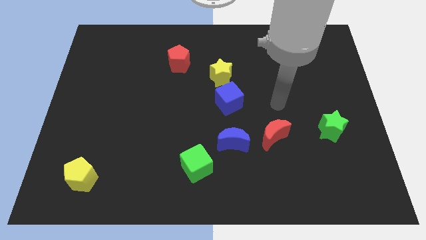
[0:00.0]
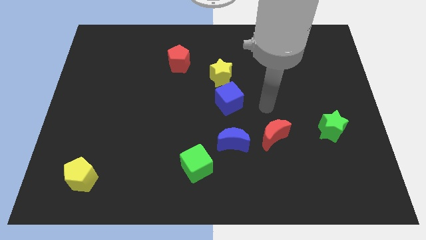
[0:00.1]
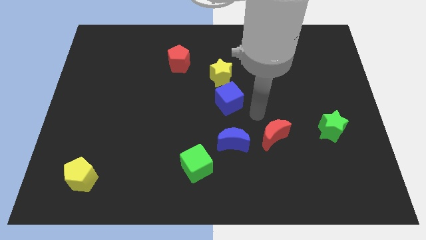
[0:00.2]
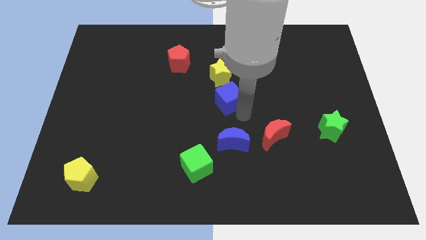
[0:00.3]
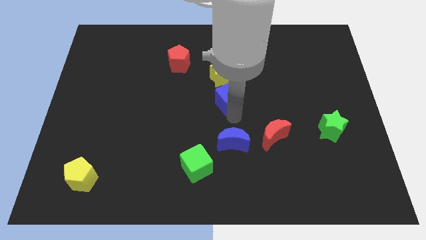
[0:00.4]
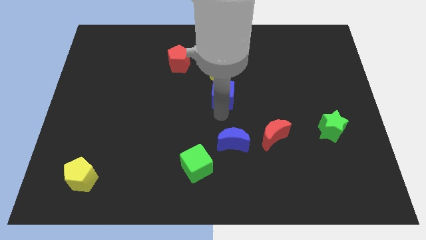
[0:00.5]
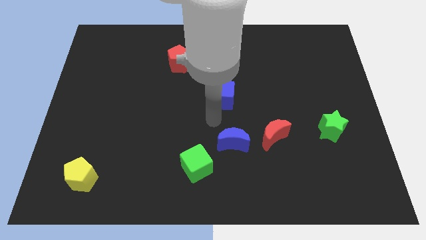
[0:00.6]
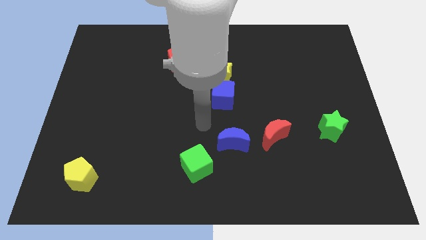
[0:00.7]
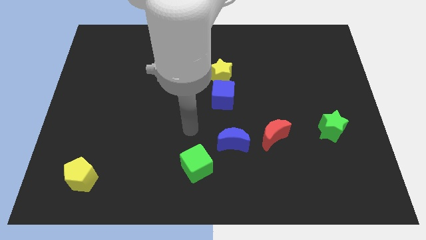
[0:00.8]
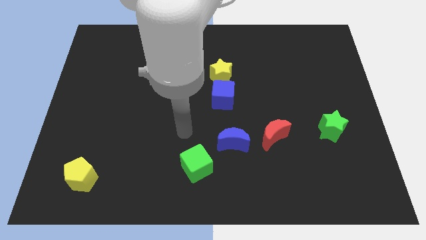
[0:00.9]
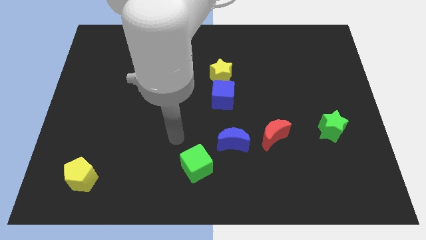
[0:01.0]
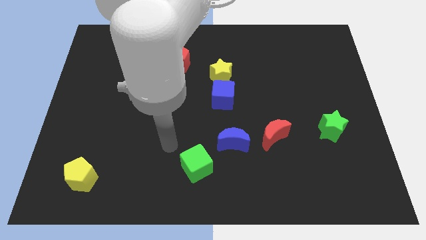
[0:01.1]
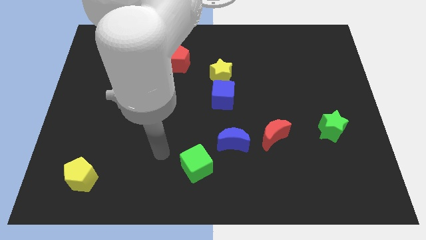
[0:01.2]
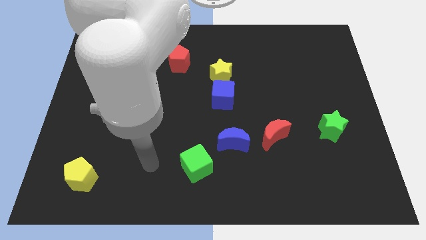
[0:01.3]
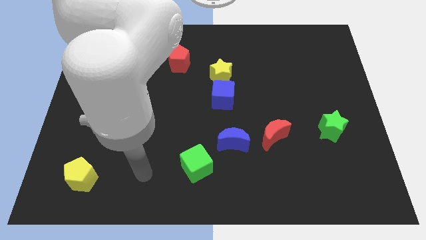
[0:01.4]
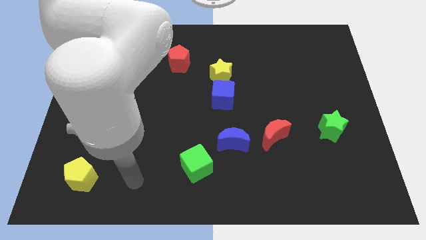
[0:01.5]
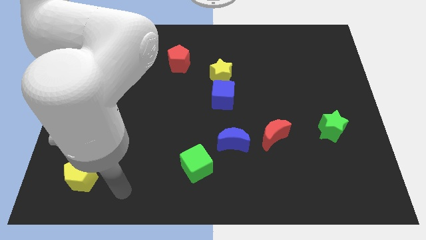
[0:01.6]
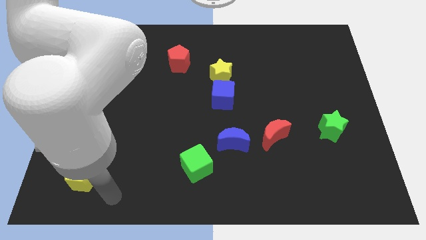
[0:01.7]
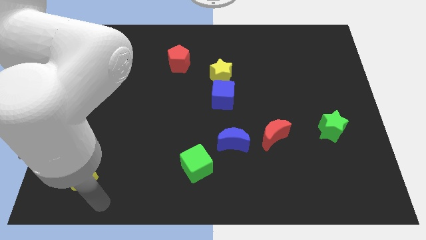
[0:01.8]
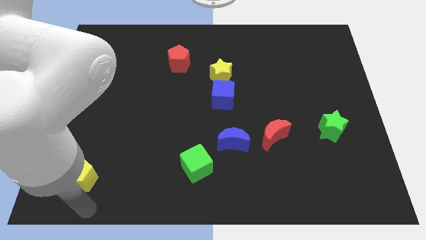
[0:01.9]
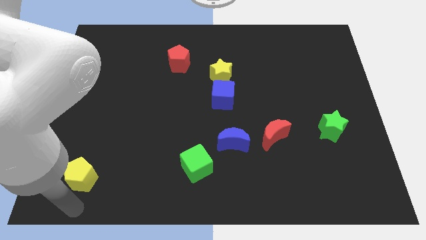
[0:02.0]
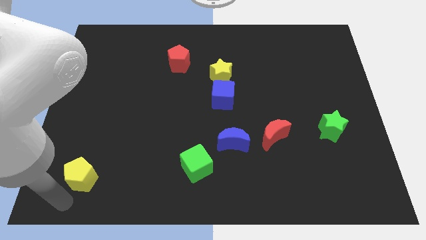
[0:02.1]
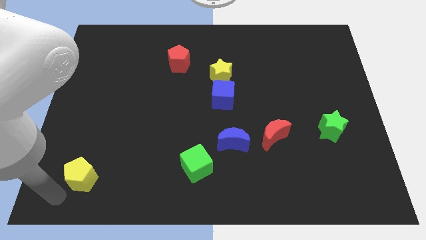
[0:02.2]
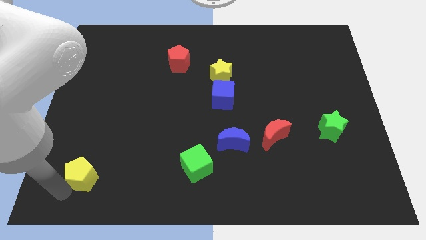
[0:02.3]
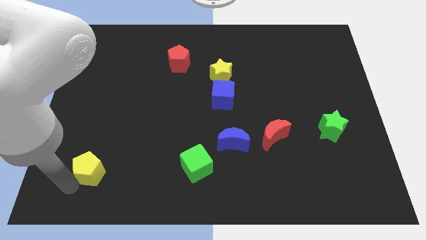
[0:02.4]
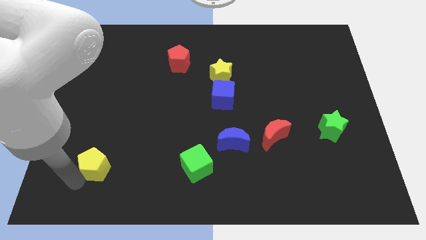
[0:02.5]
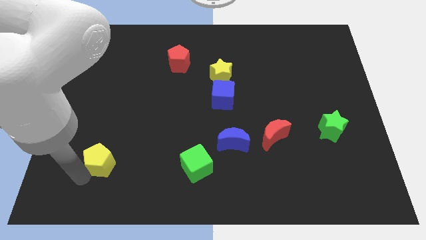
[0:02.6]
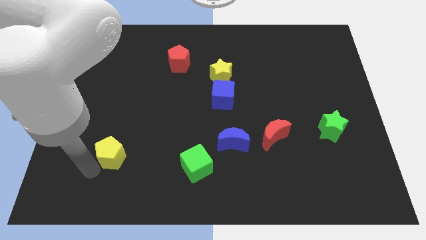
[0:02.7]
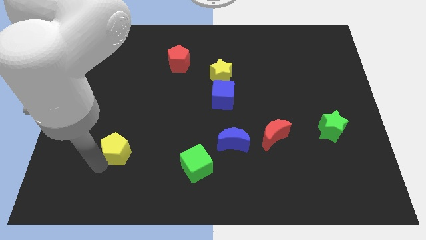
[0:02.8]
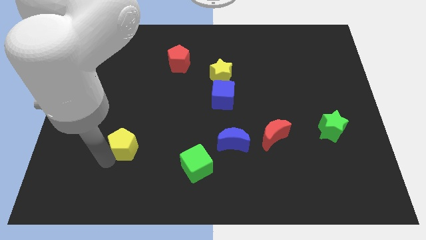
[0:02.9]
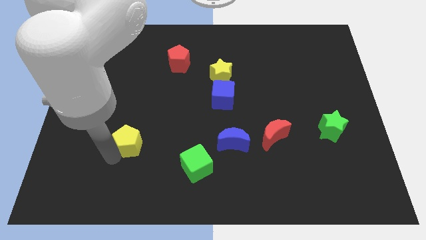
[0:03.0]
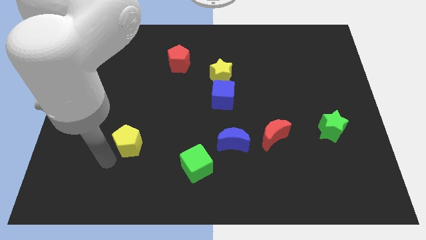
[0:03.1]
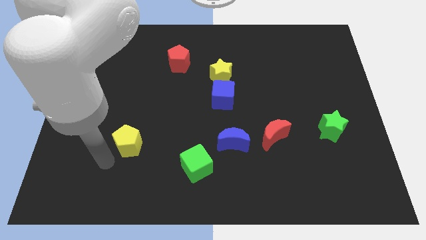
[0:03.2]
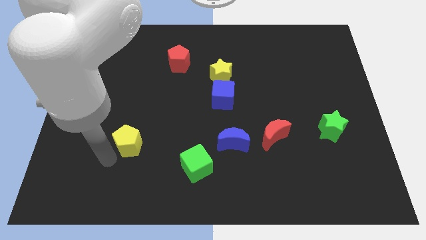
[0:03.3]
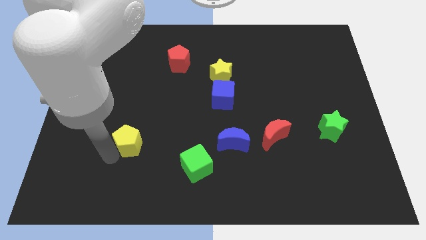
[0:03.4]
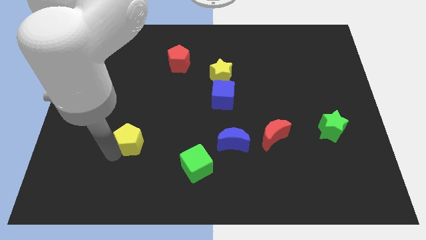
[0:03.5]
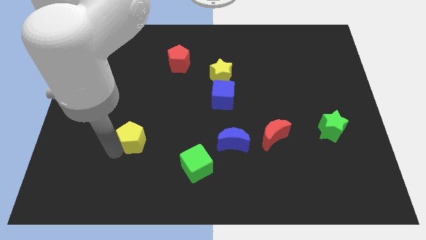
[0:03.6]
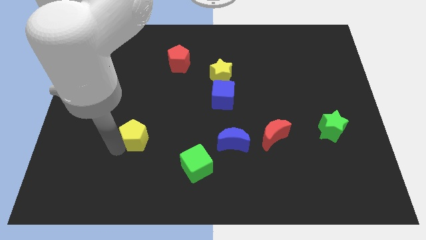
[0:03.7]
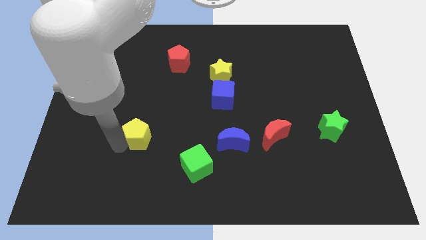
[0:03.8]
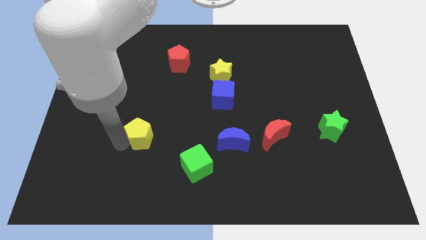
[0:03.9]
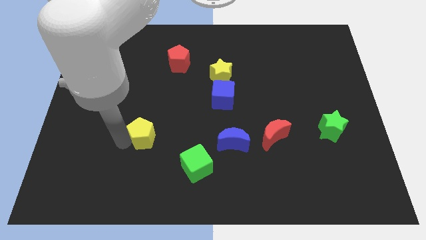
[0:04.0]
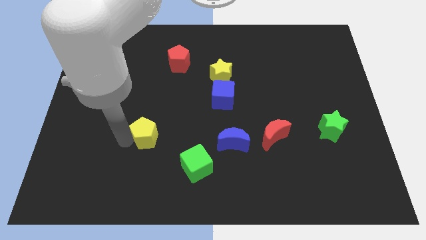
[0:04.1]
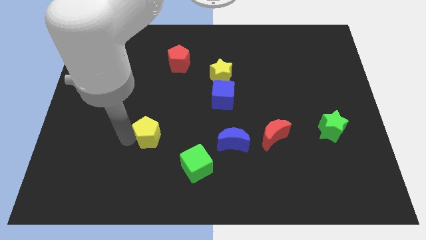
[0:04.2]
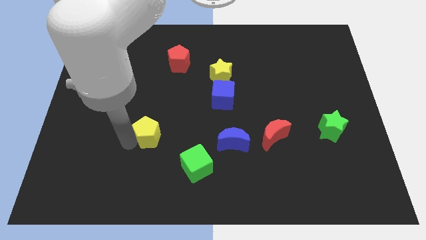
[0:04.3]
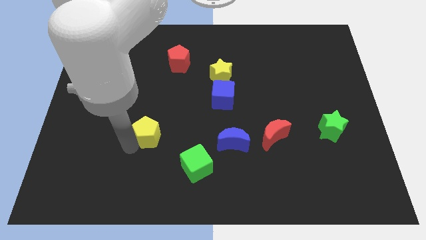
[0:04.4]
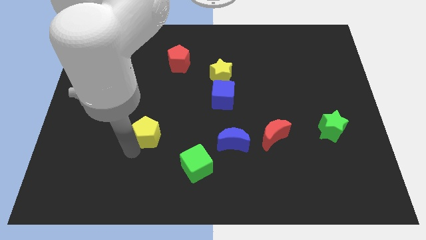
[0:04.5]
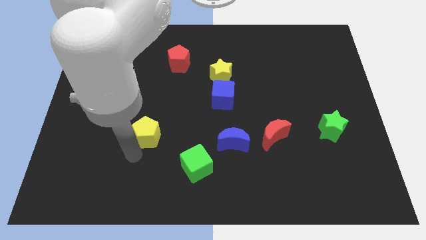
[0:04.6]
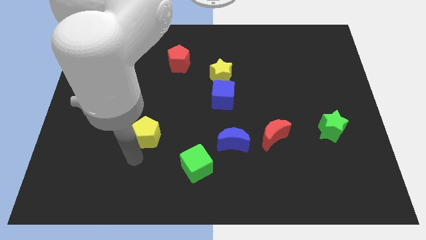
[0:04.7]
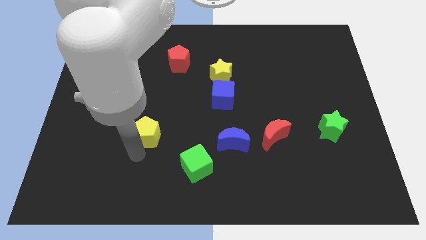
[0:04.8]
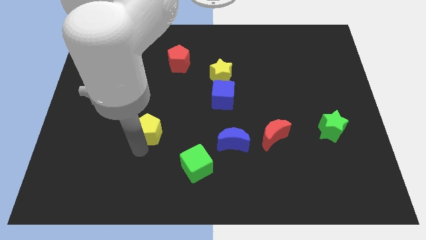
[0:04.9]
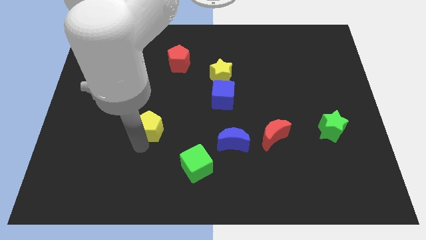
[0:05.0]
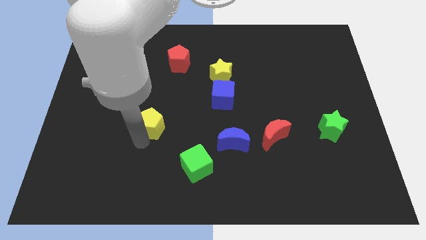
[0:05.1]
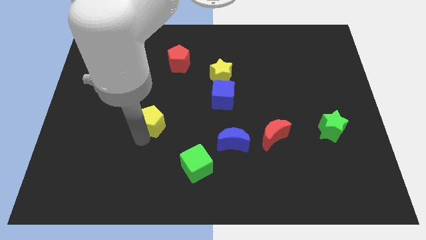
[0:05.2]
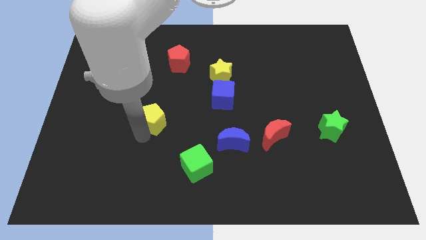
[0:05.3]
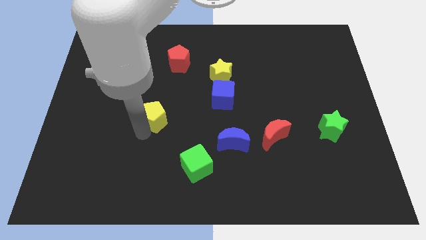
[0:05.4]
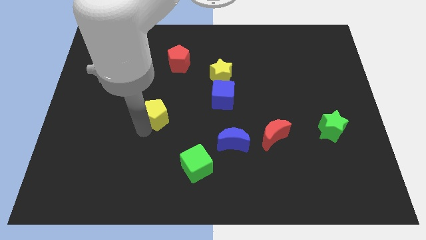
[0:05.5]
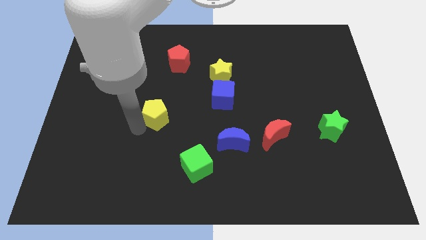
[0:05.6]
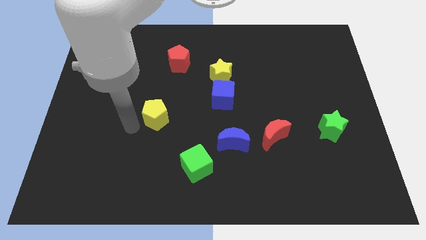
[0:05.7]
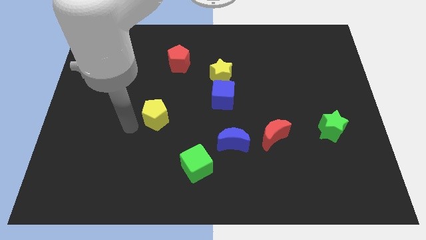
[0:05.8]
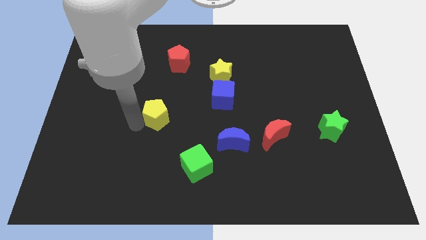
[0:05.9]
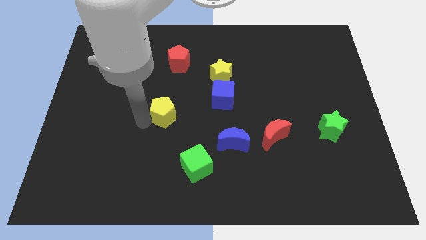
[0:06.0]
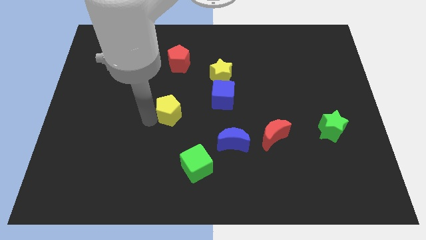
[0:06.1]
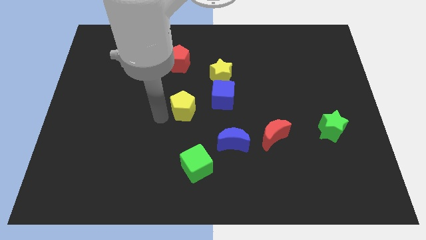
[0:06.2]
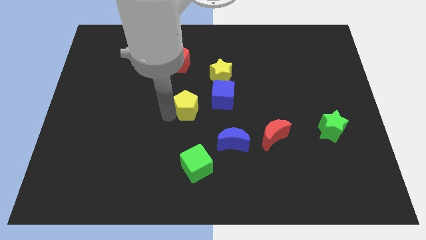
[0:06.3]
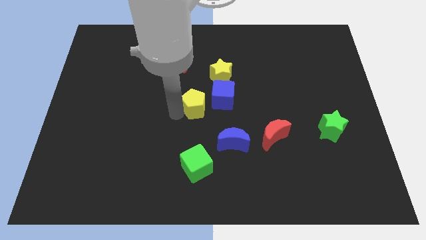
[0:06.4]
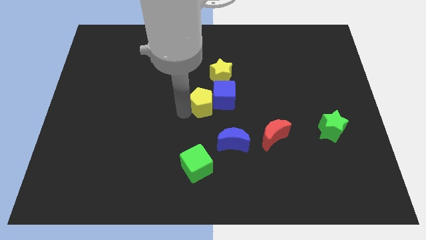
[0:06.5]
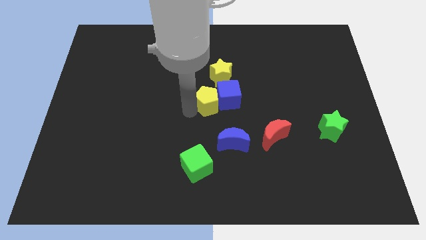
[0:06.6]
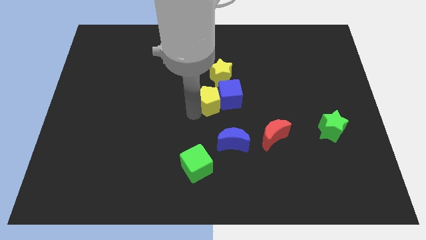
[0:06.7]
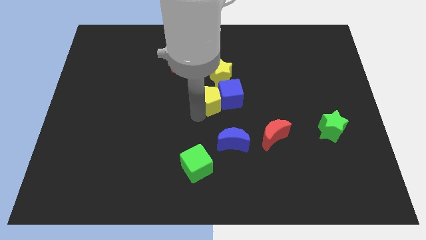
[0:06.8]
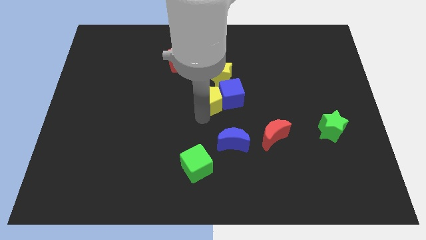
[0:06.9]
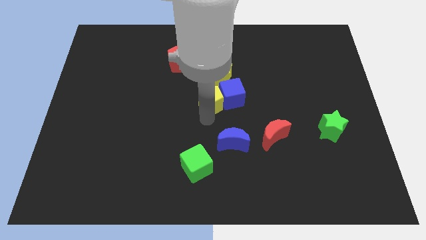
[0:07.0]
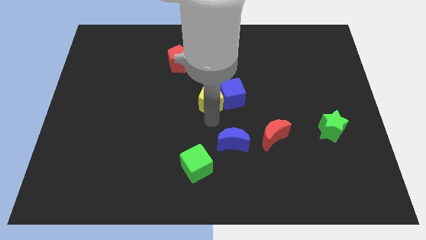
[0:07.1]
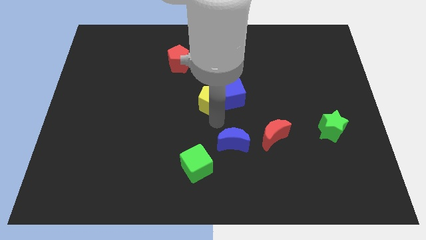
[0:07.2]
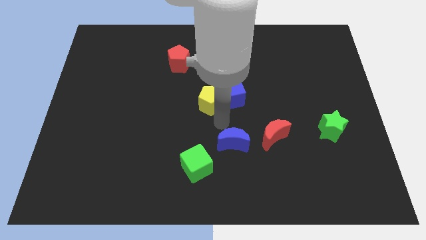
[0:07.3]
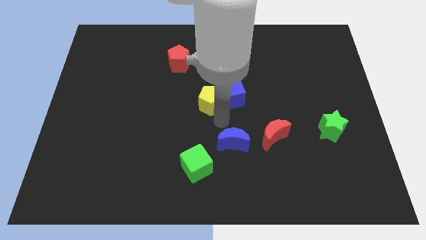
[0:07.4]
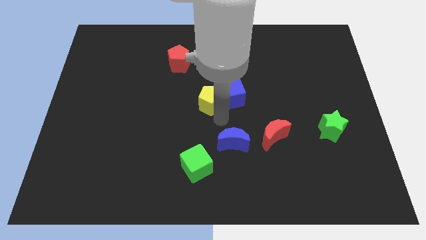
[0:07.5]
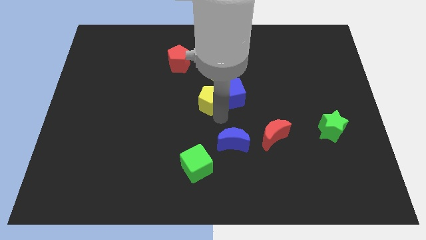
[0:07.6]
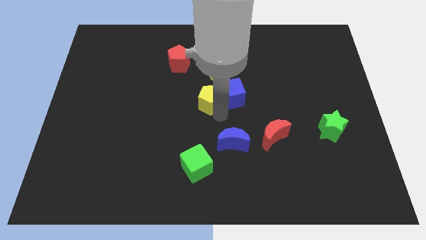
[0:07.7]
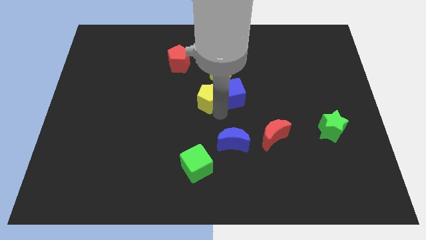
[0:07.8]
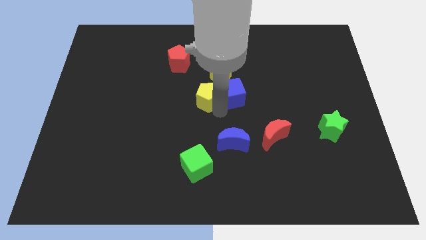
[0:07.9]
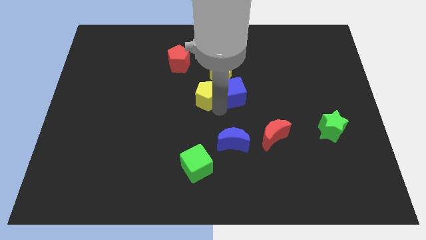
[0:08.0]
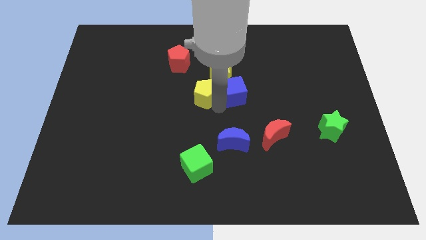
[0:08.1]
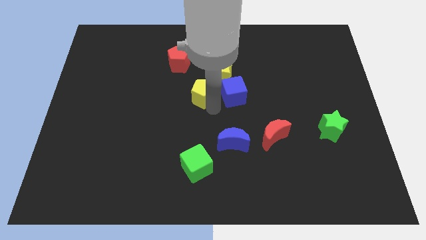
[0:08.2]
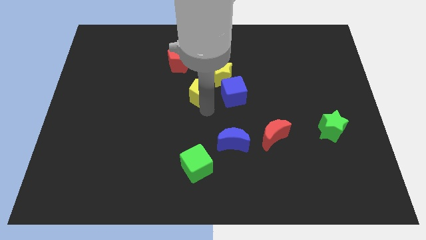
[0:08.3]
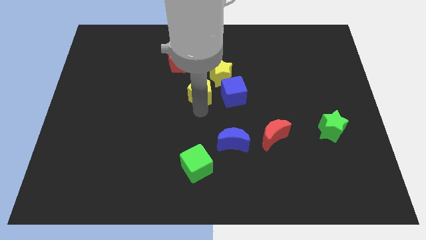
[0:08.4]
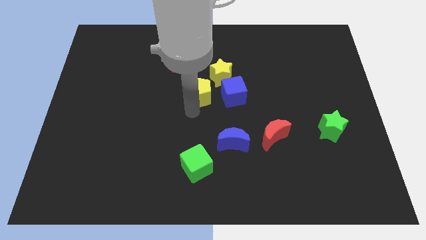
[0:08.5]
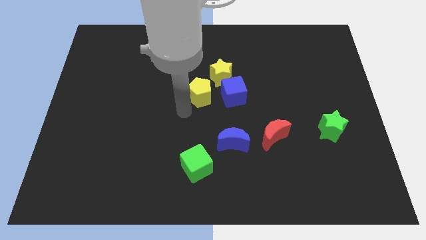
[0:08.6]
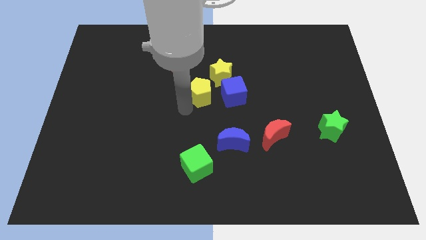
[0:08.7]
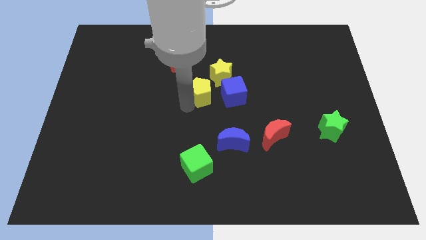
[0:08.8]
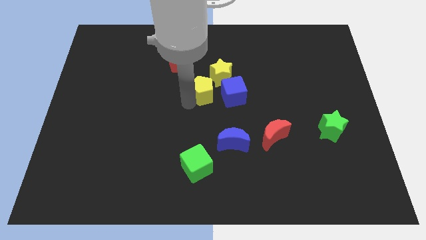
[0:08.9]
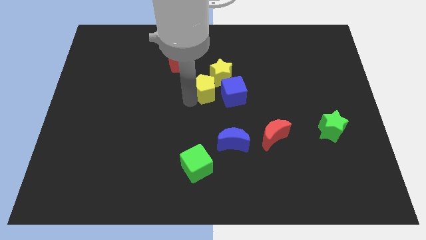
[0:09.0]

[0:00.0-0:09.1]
push the yellow pentagon to the yellow star
